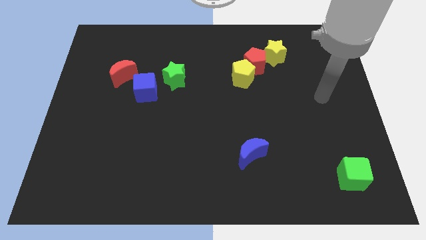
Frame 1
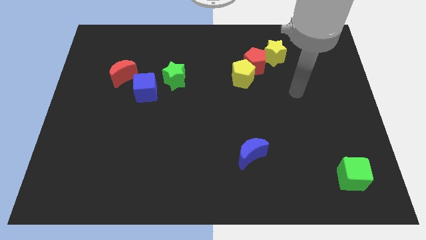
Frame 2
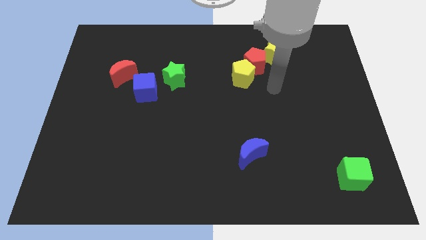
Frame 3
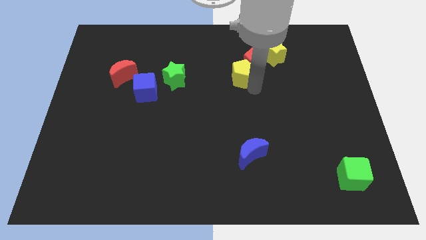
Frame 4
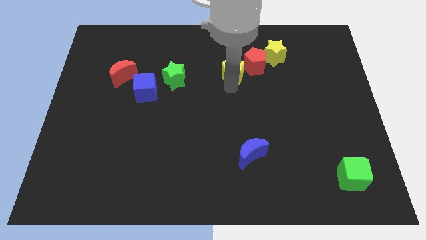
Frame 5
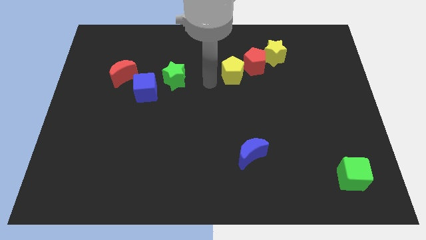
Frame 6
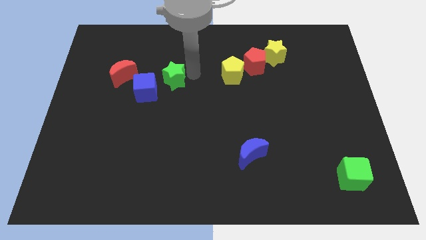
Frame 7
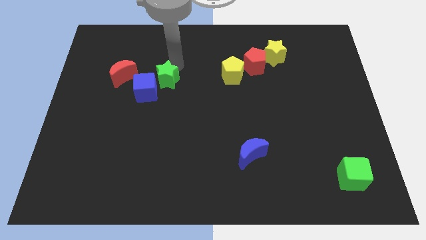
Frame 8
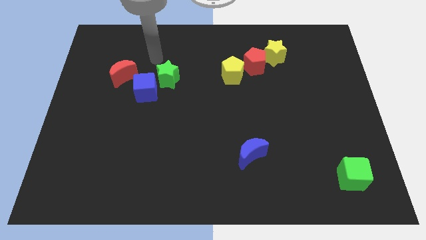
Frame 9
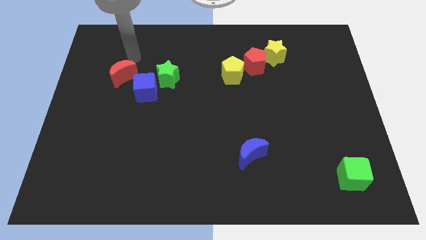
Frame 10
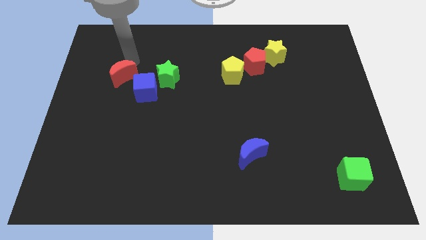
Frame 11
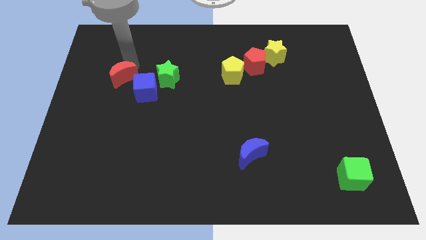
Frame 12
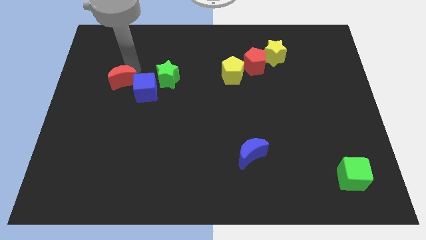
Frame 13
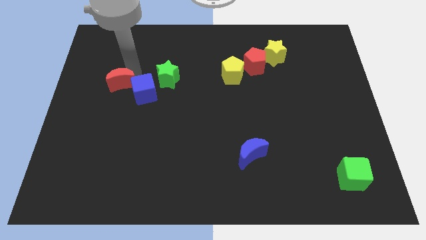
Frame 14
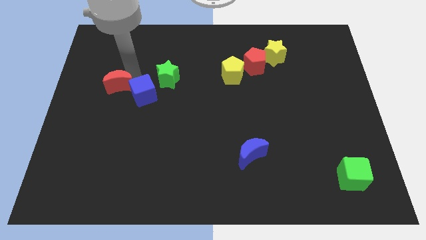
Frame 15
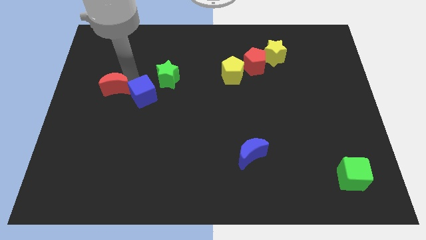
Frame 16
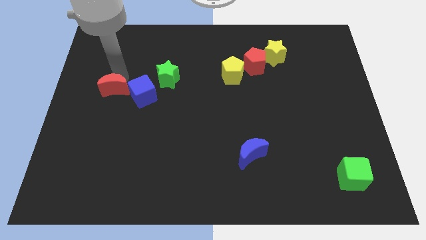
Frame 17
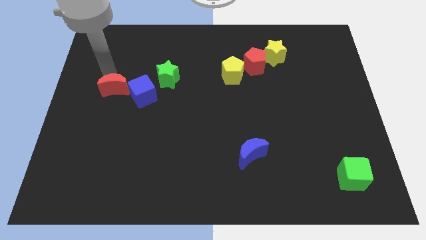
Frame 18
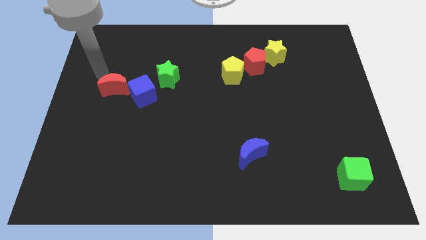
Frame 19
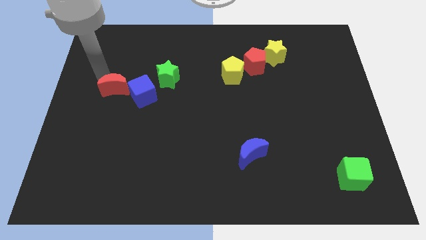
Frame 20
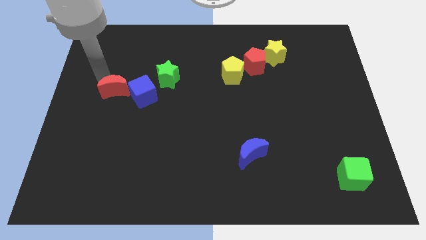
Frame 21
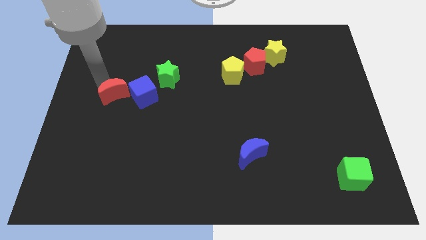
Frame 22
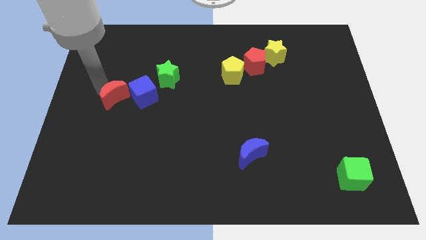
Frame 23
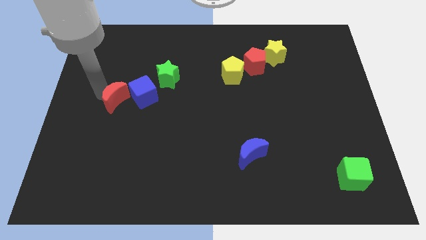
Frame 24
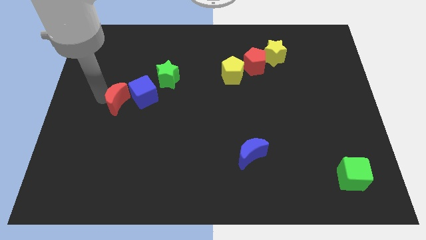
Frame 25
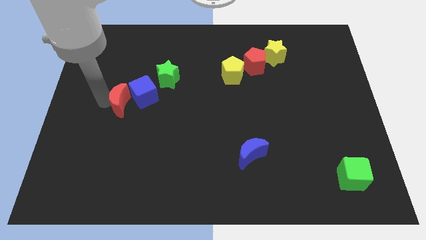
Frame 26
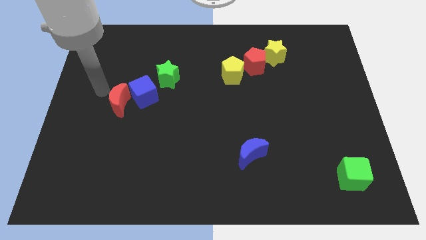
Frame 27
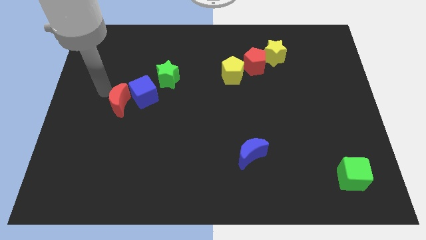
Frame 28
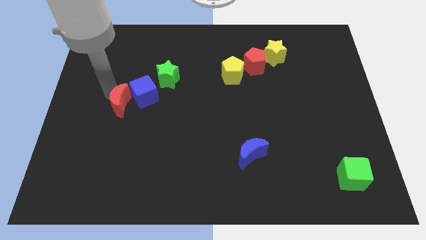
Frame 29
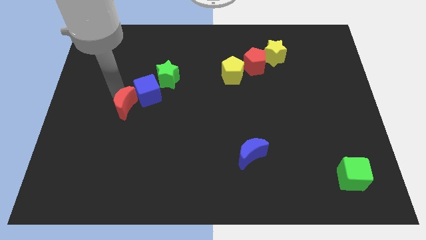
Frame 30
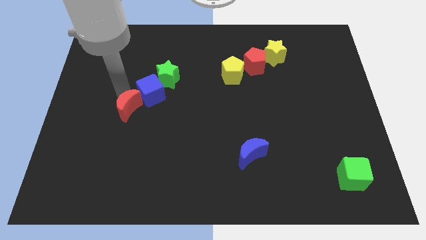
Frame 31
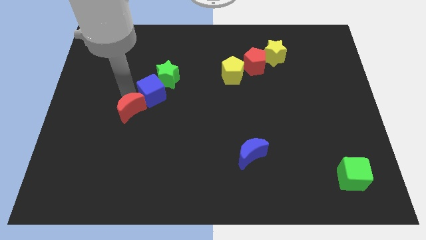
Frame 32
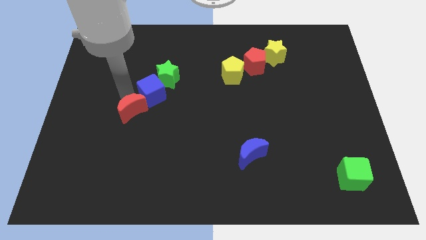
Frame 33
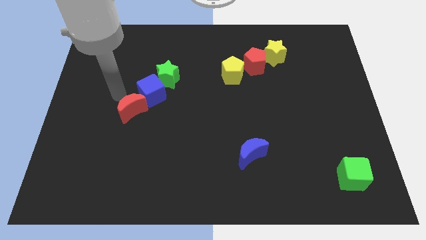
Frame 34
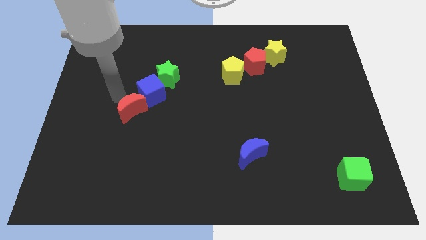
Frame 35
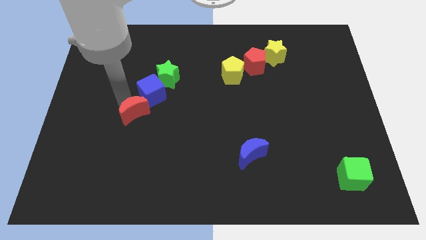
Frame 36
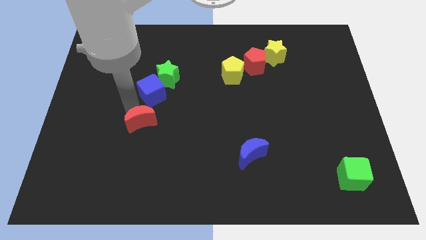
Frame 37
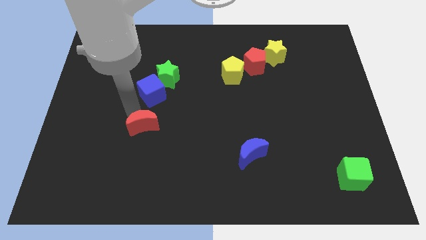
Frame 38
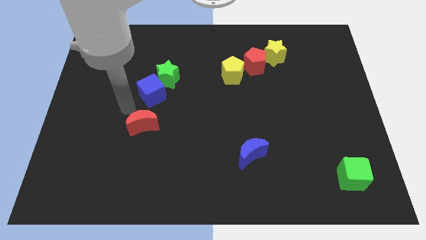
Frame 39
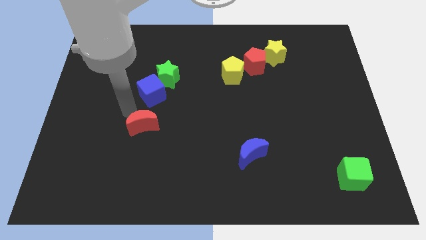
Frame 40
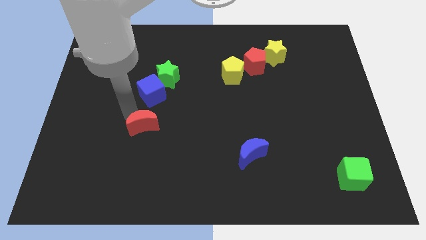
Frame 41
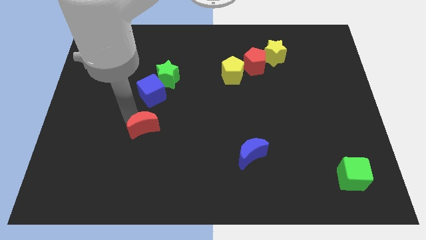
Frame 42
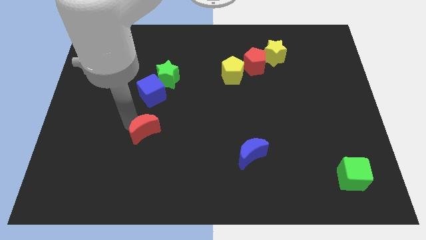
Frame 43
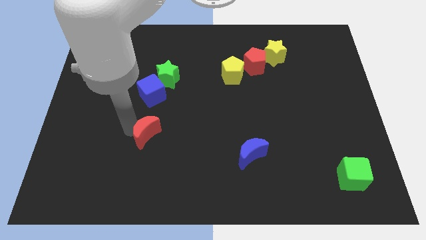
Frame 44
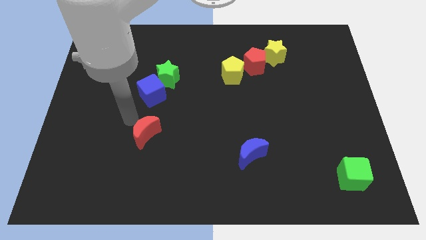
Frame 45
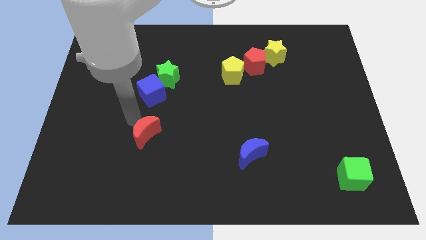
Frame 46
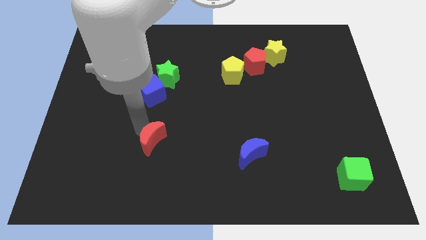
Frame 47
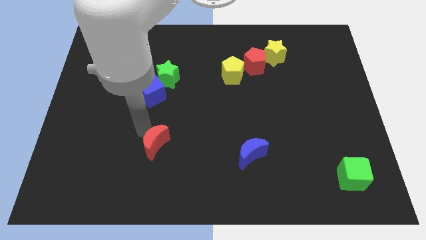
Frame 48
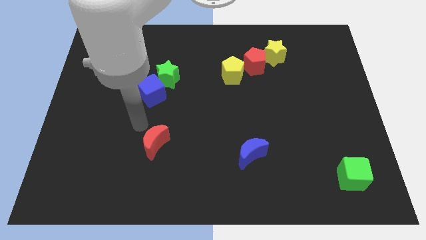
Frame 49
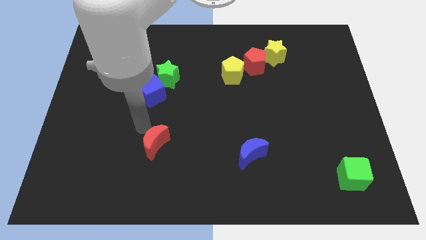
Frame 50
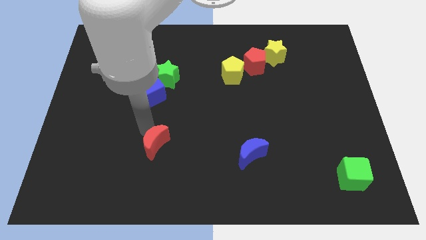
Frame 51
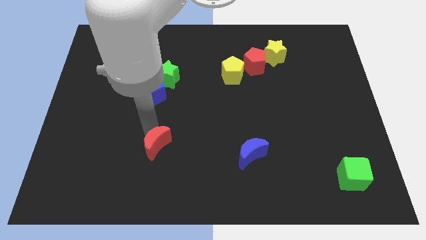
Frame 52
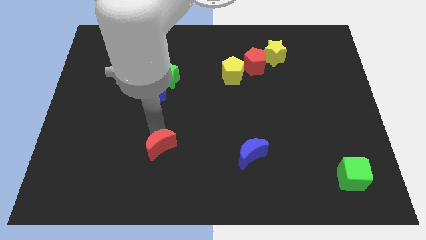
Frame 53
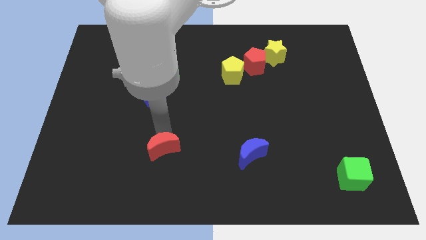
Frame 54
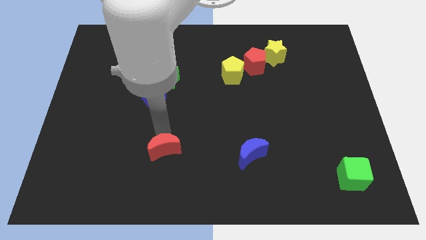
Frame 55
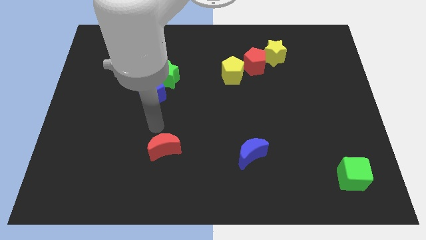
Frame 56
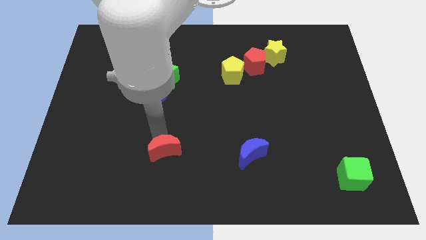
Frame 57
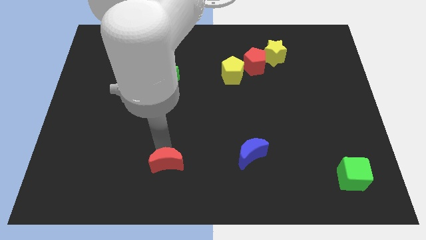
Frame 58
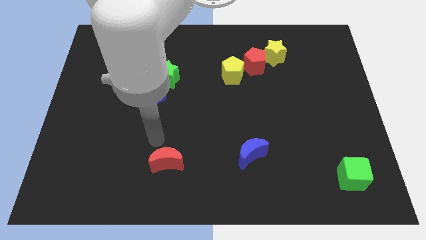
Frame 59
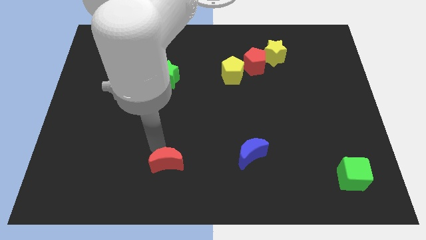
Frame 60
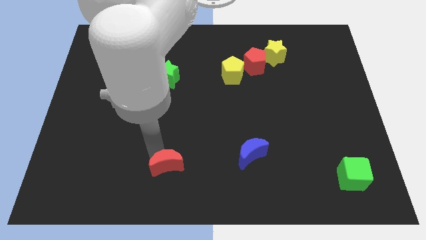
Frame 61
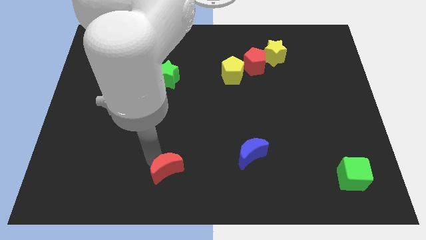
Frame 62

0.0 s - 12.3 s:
put the red moon to the bottom

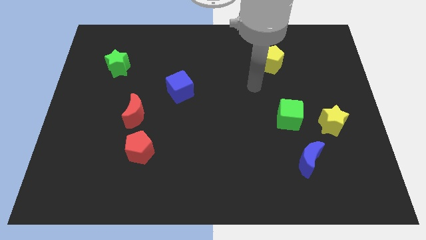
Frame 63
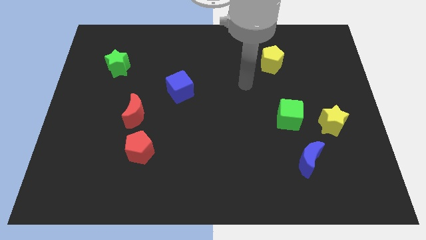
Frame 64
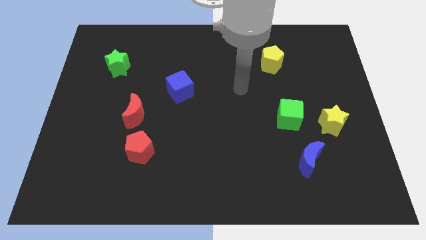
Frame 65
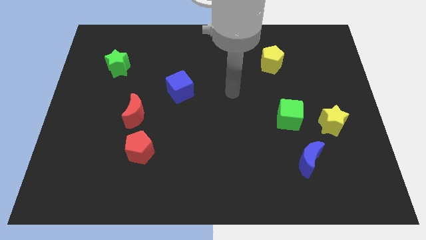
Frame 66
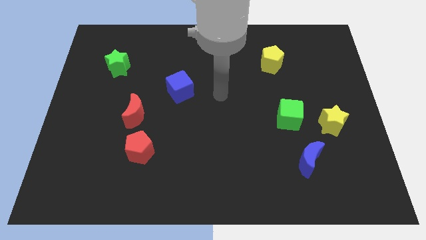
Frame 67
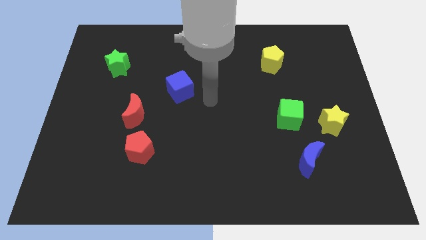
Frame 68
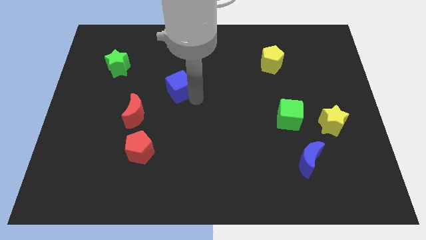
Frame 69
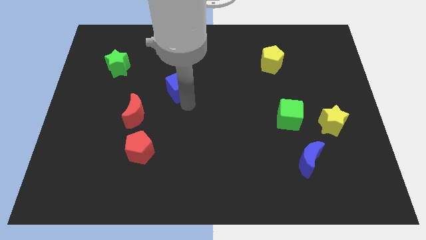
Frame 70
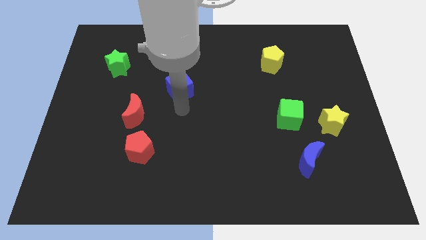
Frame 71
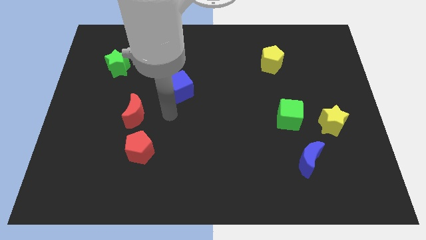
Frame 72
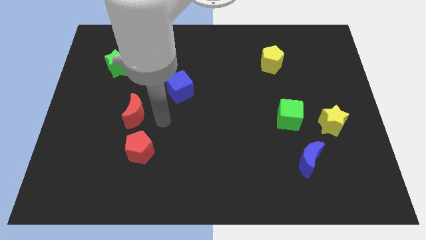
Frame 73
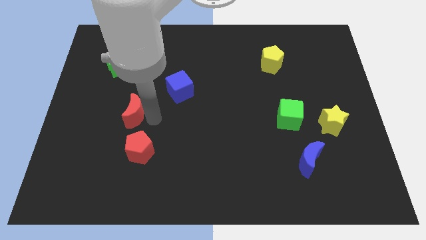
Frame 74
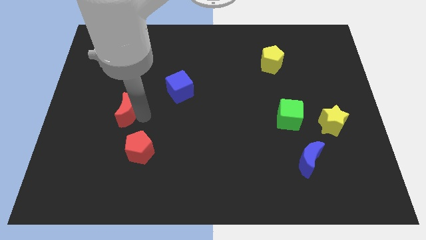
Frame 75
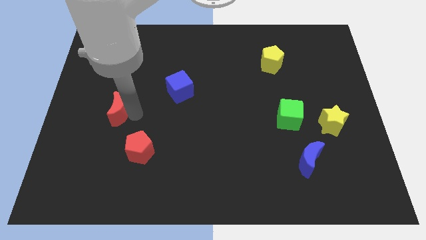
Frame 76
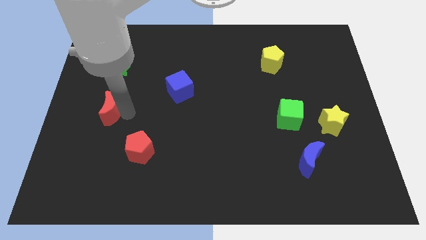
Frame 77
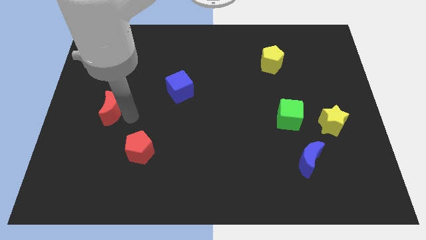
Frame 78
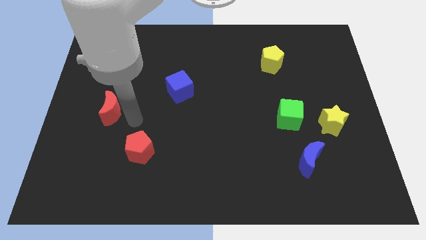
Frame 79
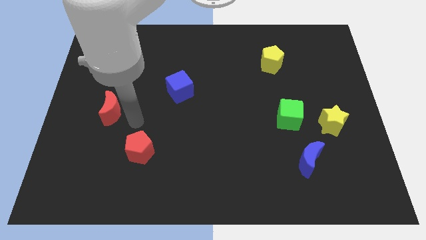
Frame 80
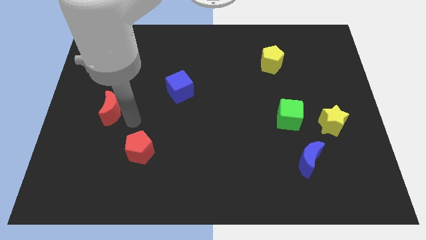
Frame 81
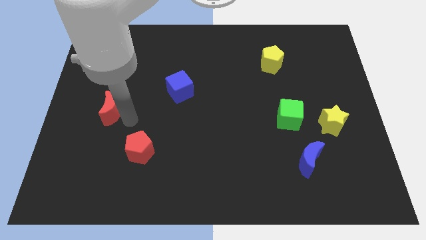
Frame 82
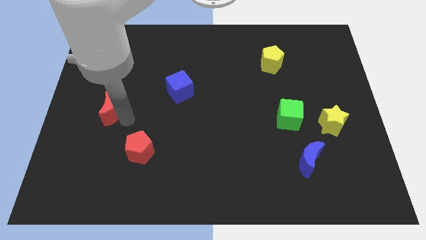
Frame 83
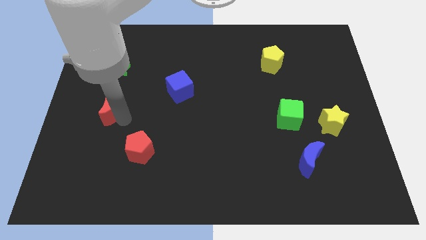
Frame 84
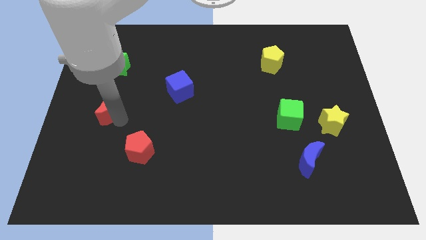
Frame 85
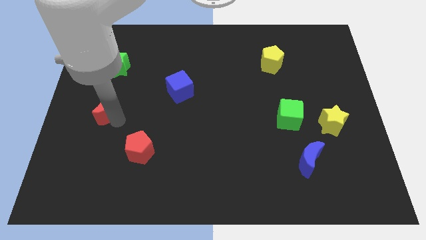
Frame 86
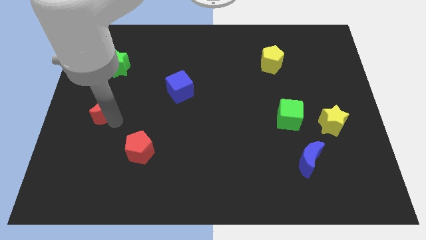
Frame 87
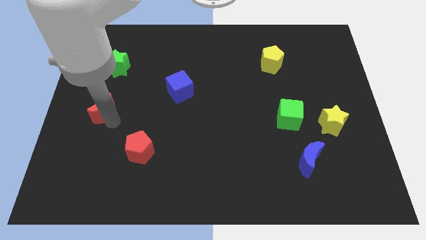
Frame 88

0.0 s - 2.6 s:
slide the red moon to the left side of the board
